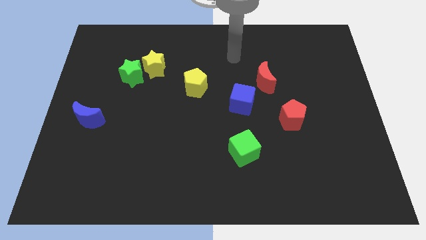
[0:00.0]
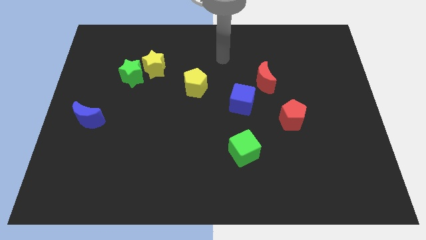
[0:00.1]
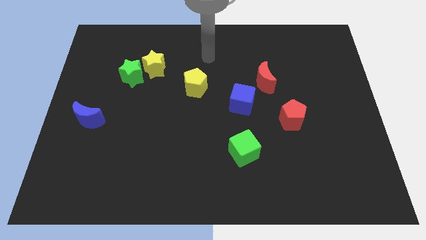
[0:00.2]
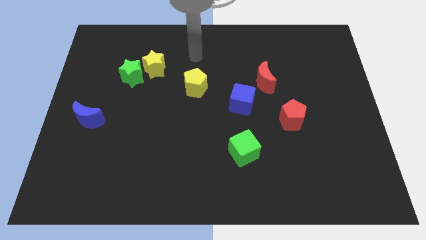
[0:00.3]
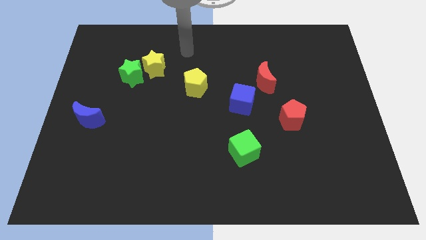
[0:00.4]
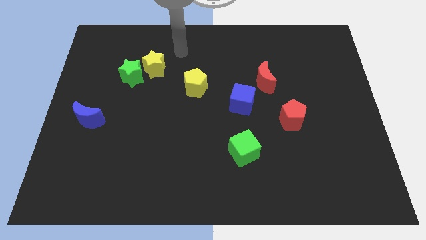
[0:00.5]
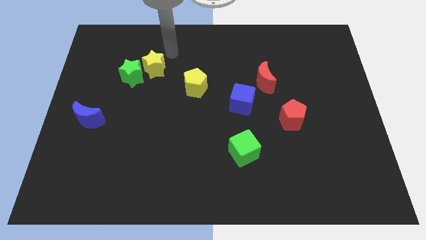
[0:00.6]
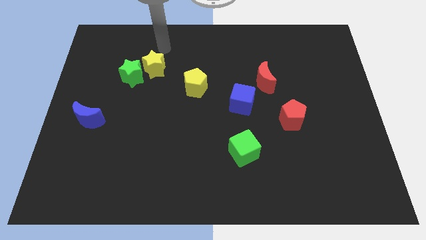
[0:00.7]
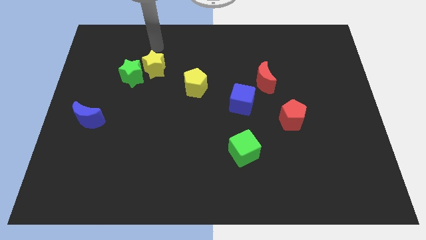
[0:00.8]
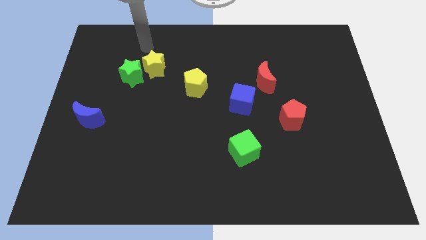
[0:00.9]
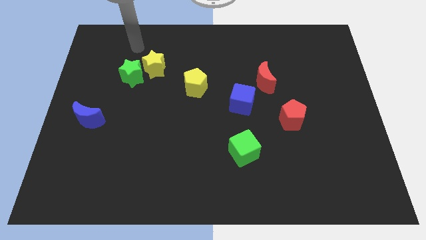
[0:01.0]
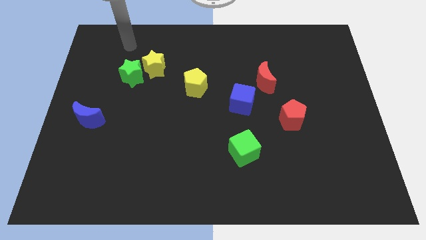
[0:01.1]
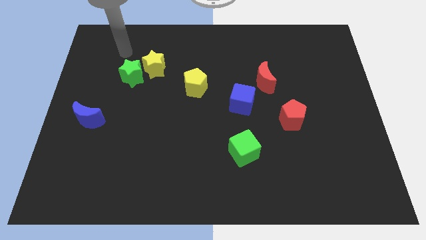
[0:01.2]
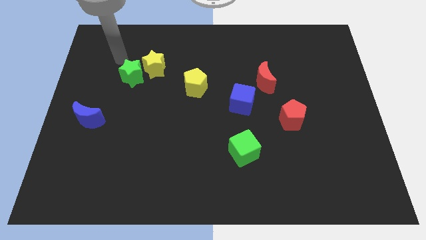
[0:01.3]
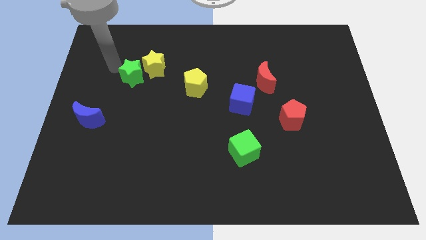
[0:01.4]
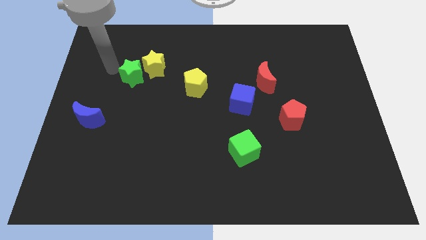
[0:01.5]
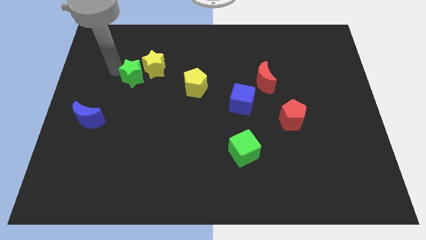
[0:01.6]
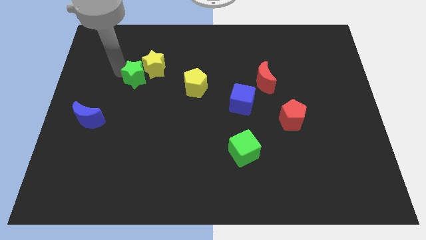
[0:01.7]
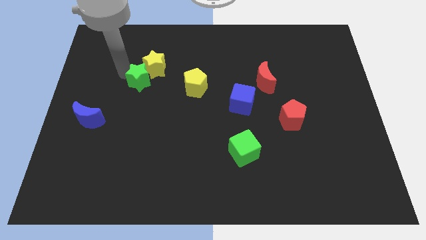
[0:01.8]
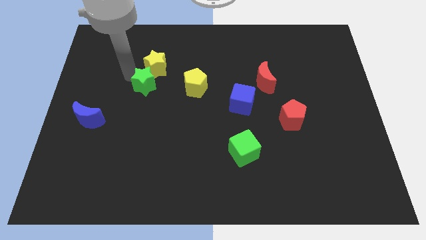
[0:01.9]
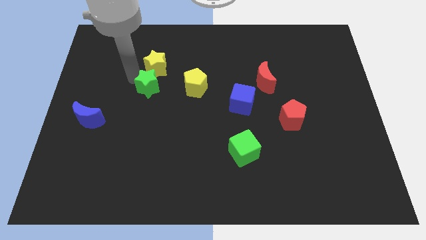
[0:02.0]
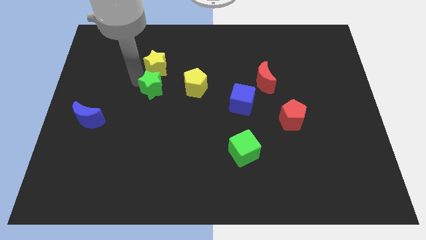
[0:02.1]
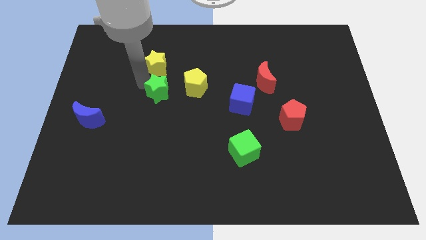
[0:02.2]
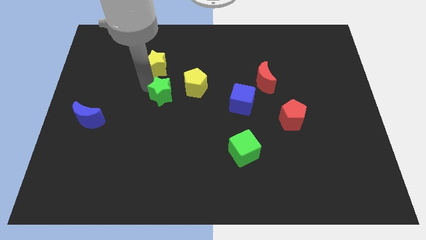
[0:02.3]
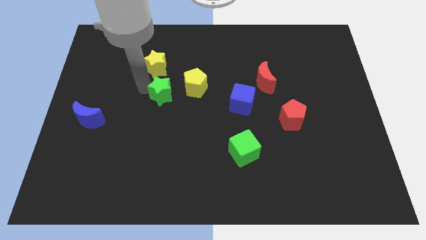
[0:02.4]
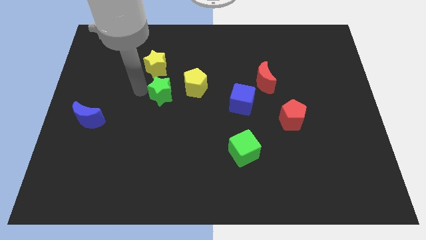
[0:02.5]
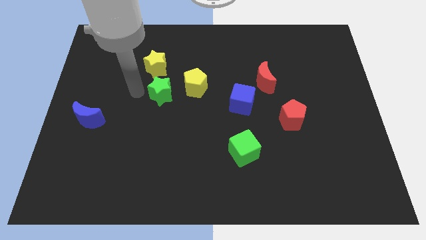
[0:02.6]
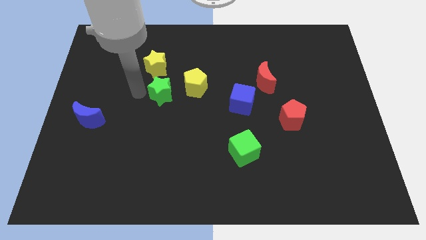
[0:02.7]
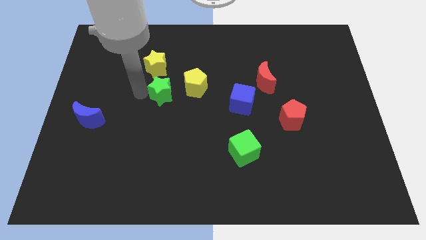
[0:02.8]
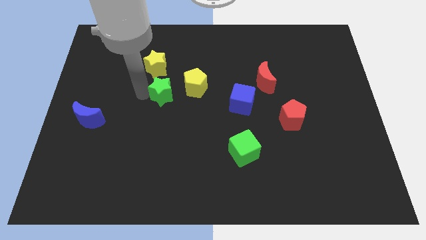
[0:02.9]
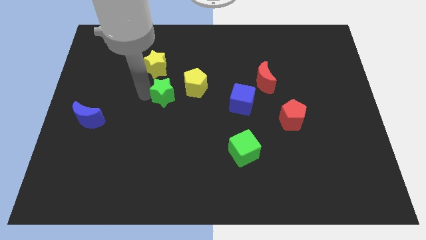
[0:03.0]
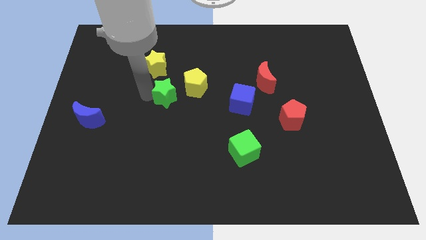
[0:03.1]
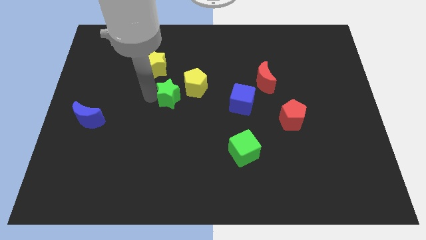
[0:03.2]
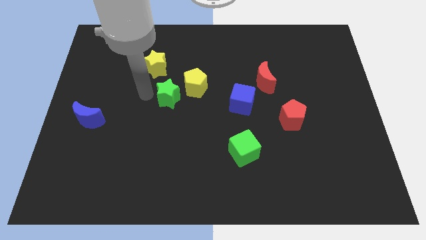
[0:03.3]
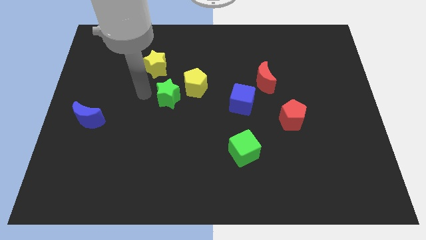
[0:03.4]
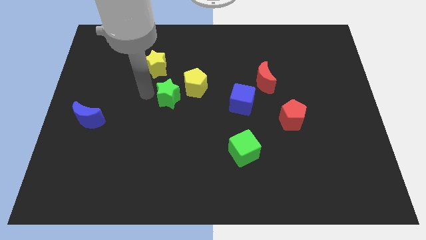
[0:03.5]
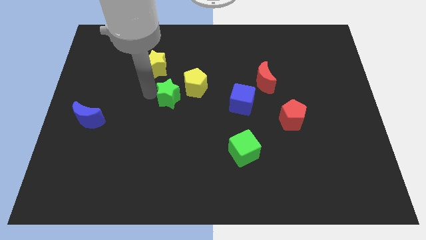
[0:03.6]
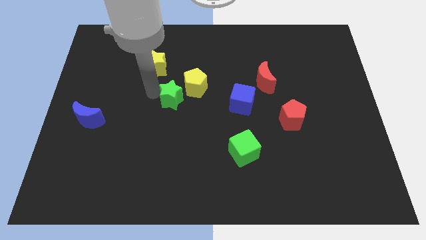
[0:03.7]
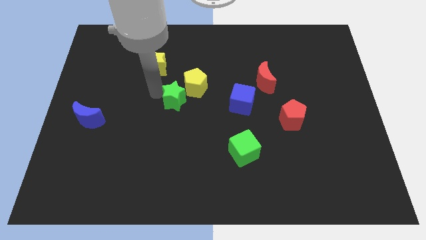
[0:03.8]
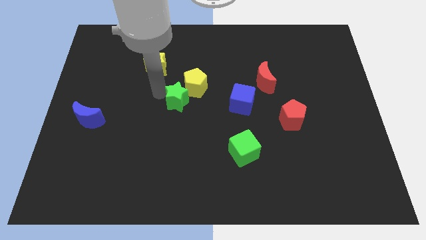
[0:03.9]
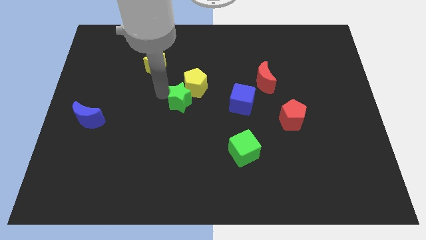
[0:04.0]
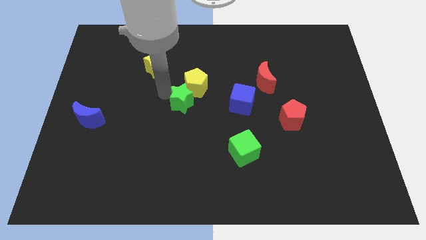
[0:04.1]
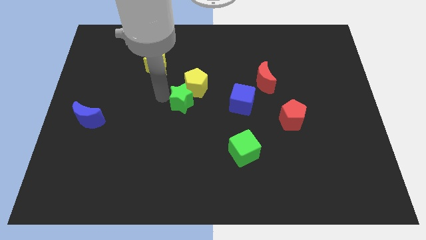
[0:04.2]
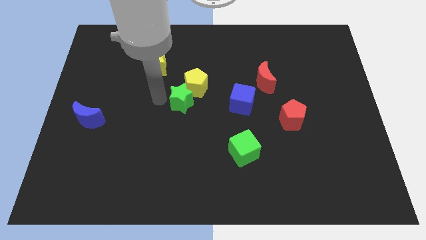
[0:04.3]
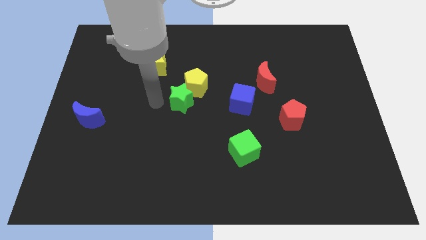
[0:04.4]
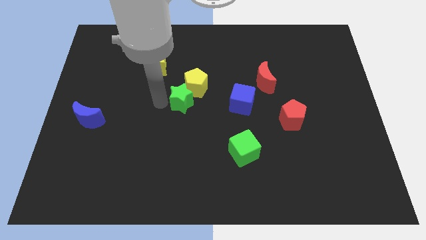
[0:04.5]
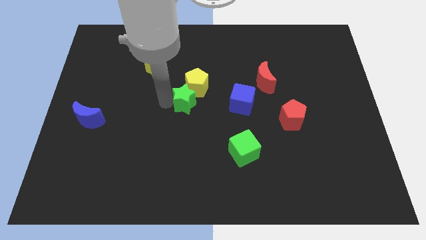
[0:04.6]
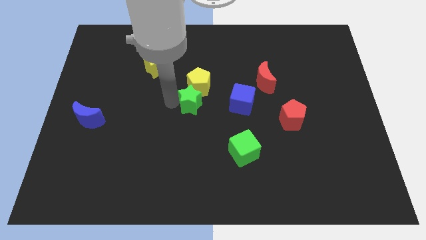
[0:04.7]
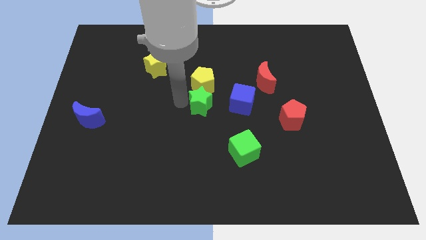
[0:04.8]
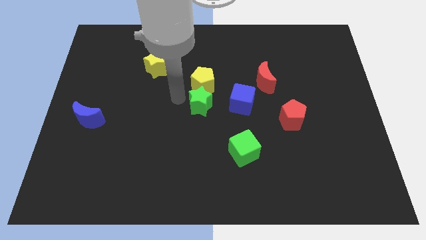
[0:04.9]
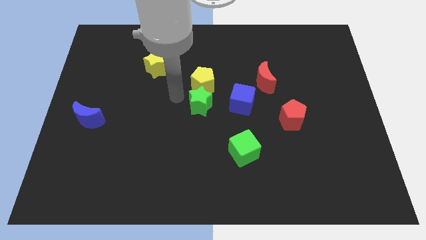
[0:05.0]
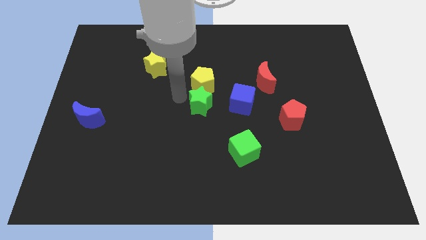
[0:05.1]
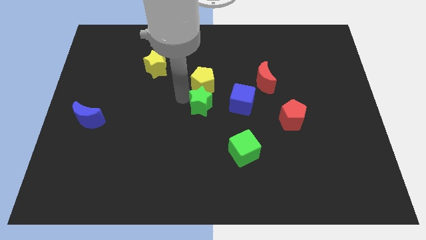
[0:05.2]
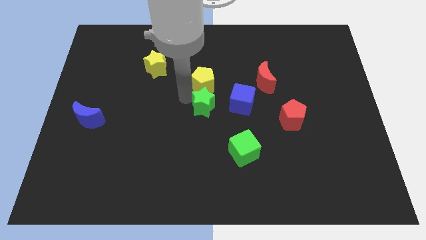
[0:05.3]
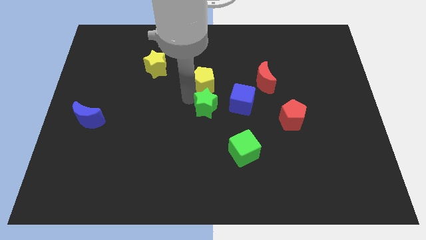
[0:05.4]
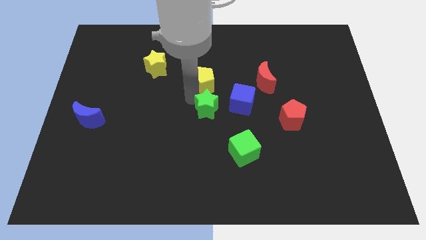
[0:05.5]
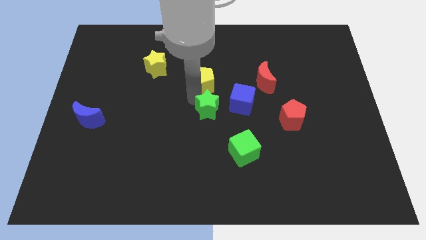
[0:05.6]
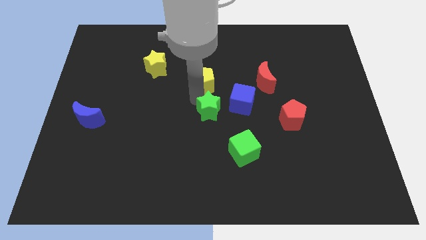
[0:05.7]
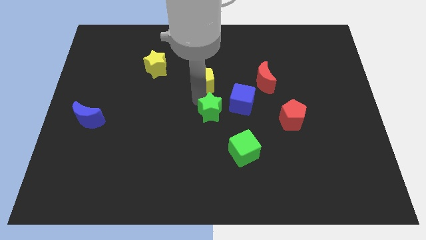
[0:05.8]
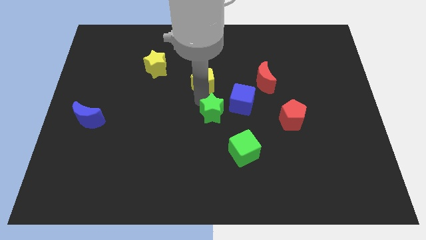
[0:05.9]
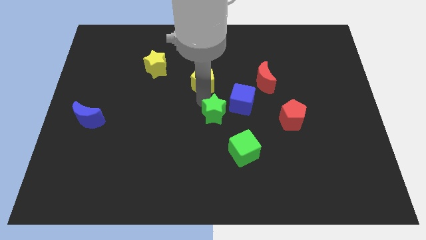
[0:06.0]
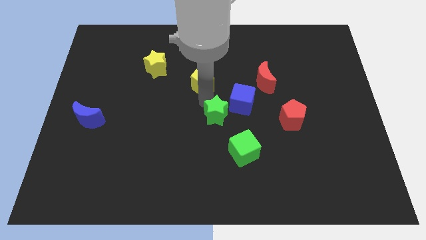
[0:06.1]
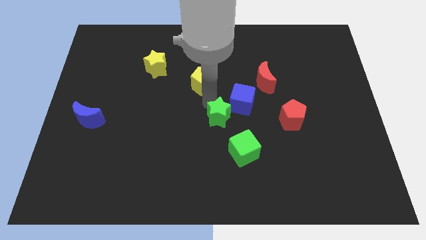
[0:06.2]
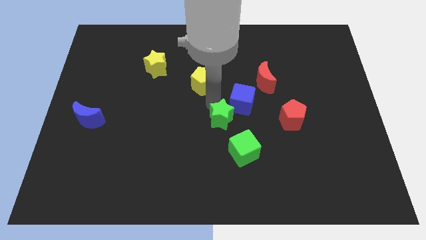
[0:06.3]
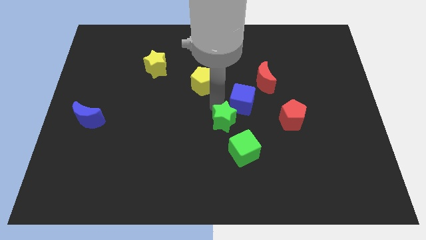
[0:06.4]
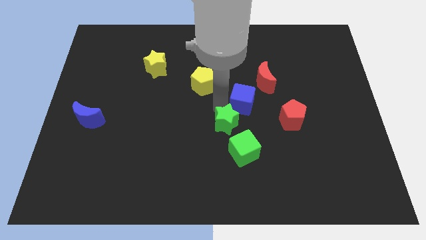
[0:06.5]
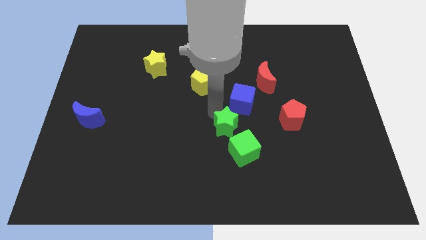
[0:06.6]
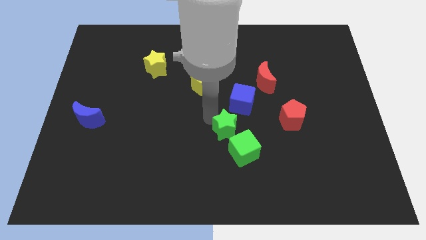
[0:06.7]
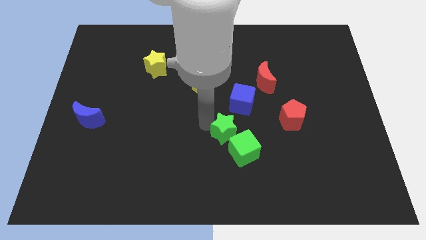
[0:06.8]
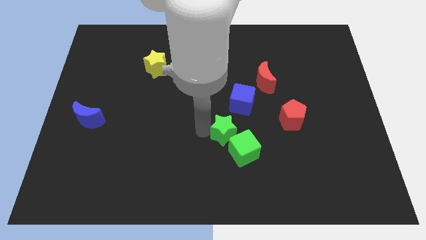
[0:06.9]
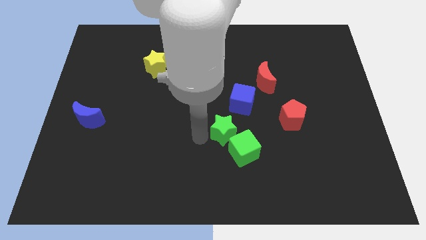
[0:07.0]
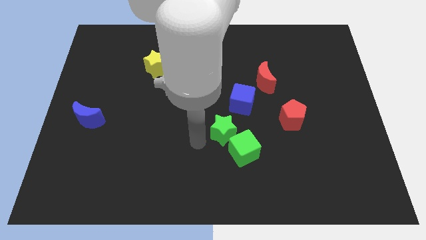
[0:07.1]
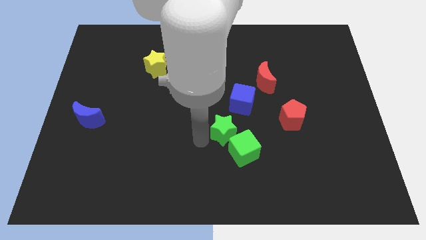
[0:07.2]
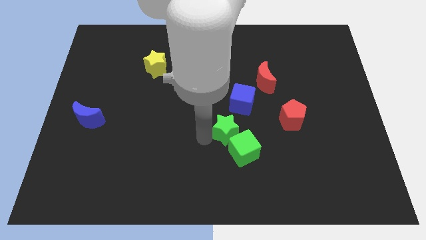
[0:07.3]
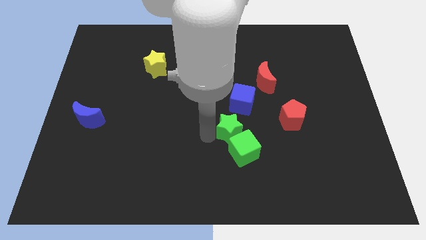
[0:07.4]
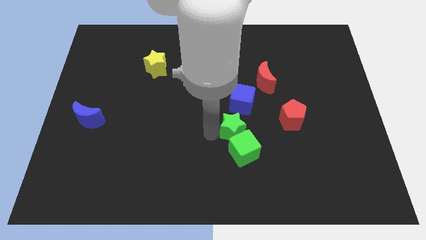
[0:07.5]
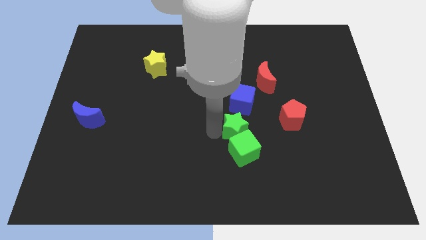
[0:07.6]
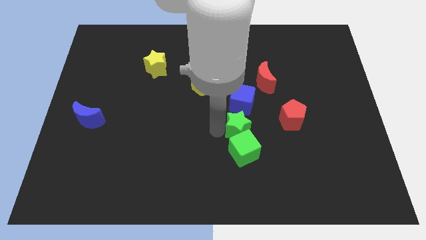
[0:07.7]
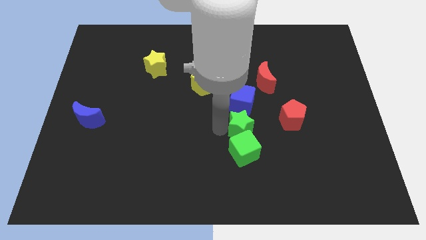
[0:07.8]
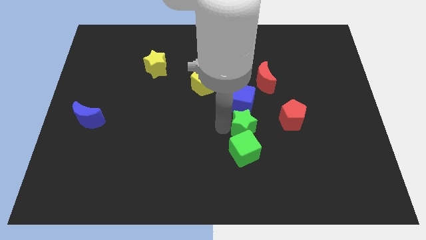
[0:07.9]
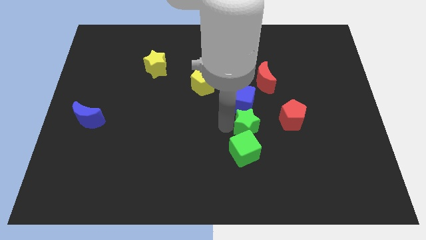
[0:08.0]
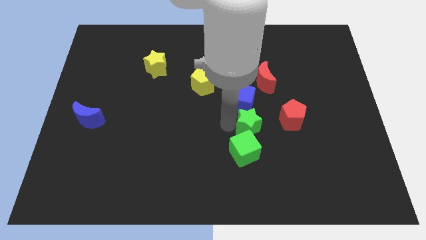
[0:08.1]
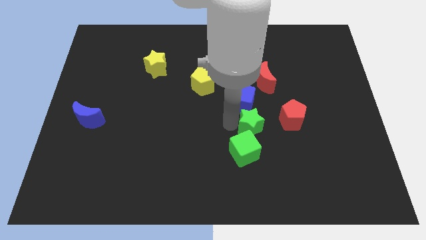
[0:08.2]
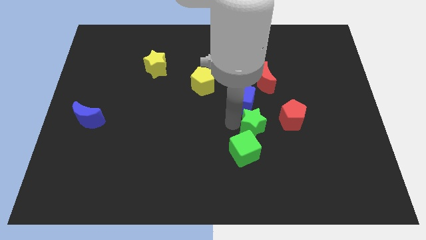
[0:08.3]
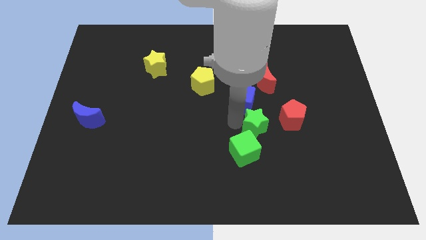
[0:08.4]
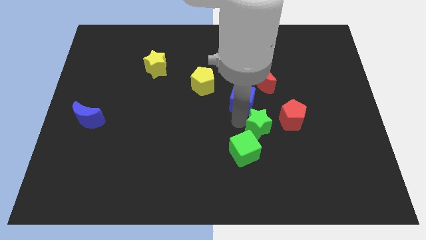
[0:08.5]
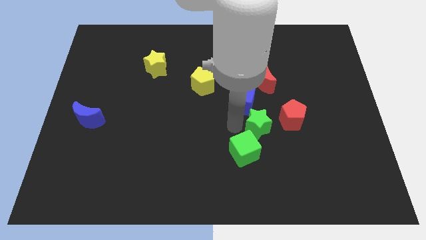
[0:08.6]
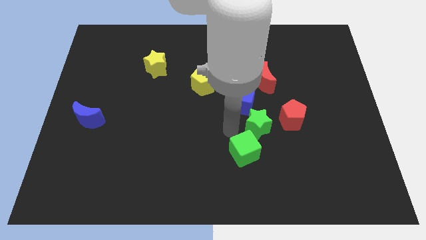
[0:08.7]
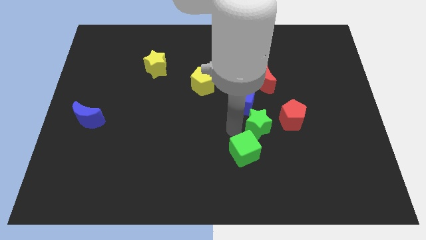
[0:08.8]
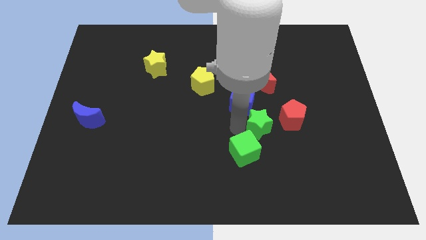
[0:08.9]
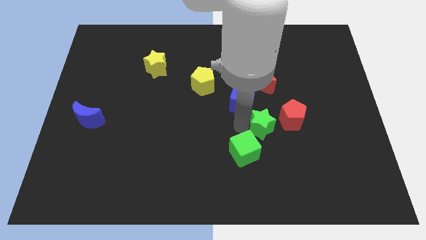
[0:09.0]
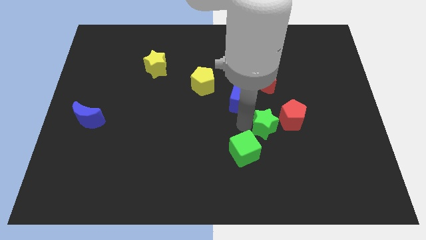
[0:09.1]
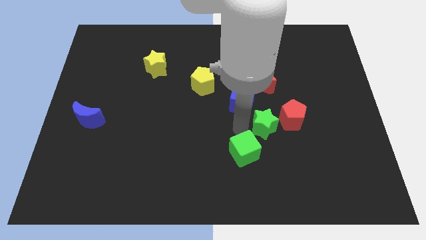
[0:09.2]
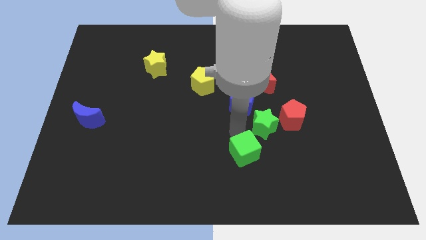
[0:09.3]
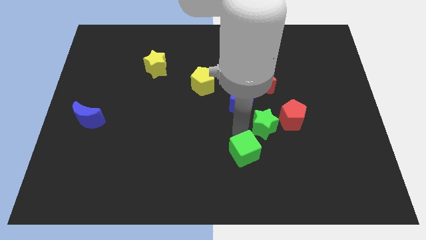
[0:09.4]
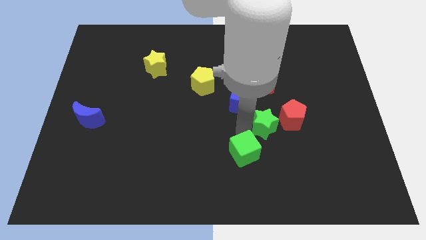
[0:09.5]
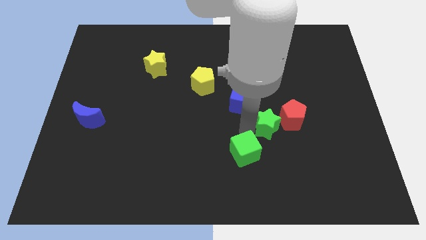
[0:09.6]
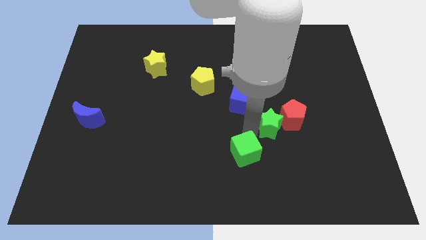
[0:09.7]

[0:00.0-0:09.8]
slide the green star towards the red pentagon
